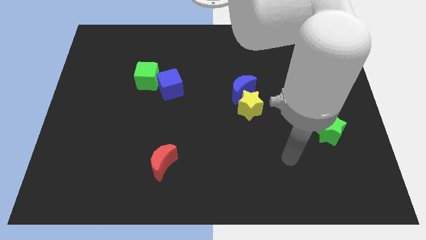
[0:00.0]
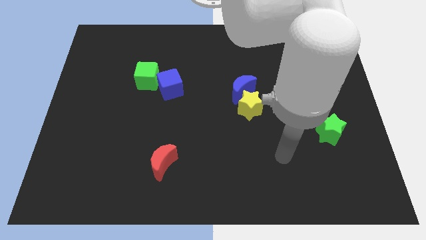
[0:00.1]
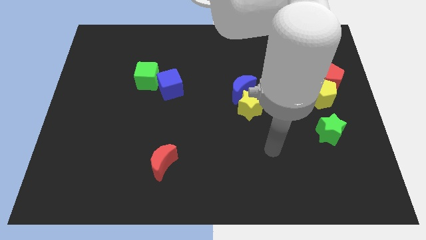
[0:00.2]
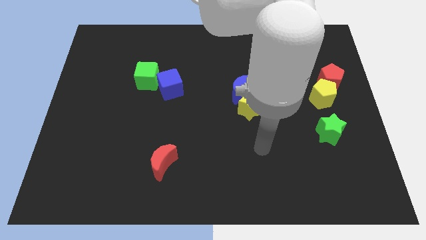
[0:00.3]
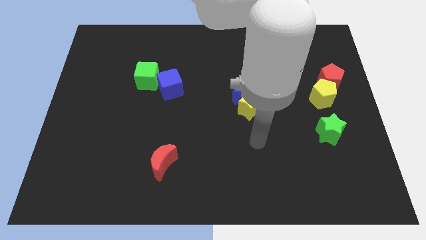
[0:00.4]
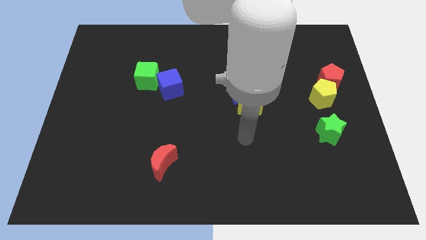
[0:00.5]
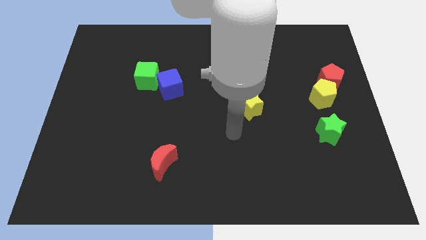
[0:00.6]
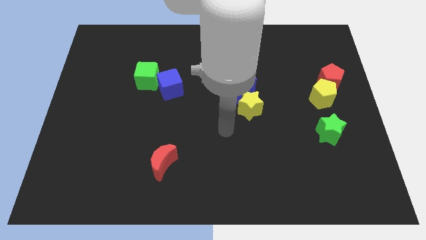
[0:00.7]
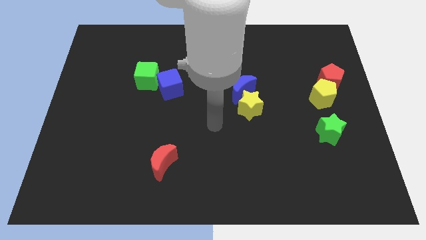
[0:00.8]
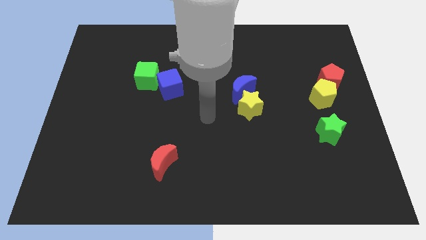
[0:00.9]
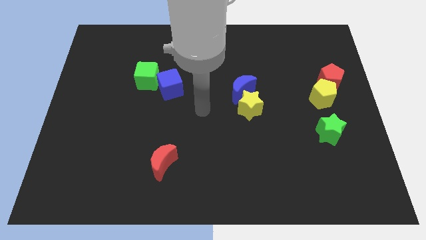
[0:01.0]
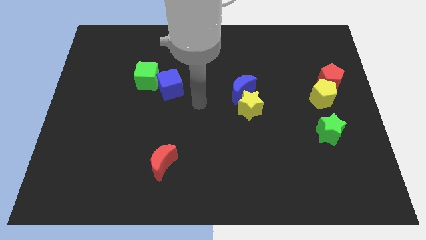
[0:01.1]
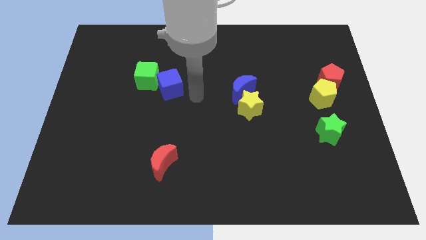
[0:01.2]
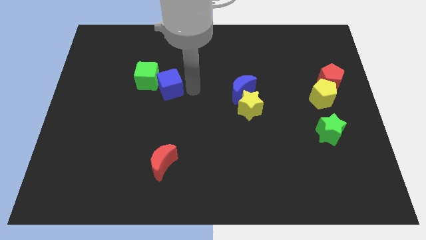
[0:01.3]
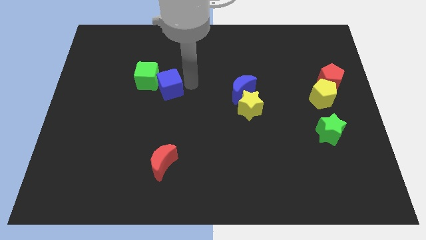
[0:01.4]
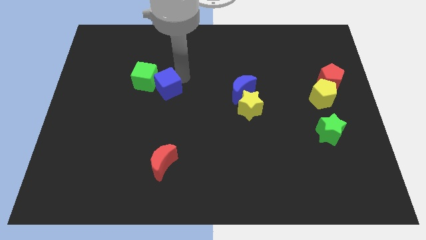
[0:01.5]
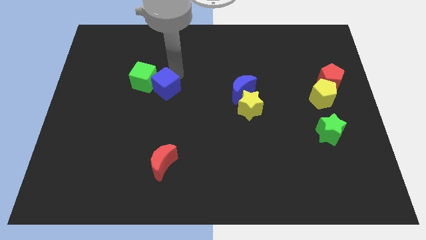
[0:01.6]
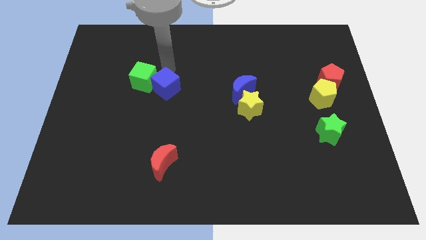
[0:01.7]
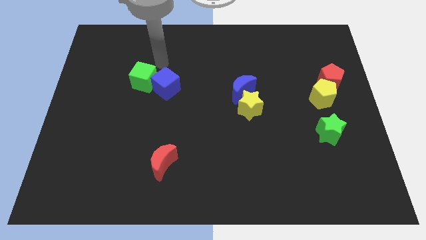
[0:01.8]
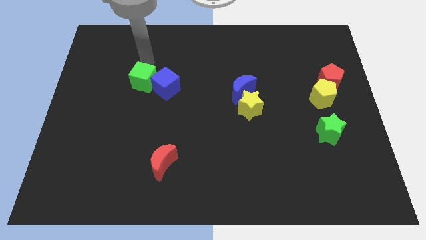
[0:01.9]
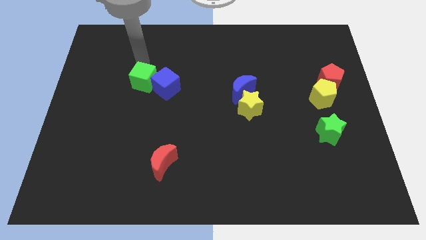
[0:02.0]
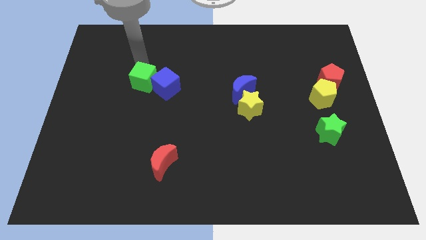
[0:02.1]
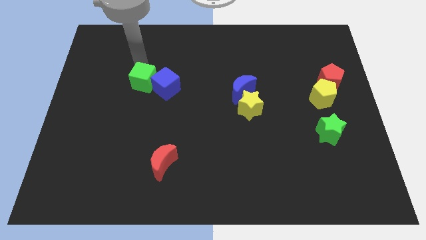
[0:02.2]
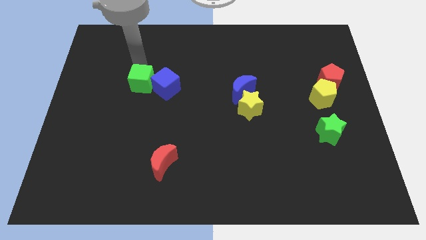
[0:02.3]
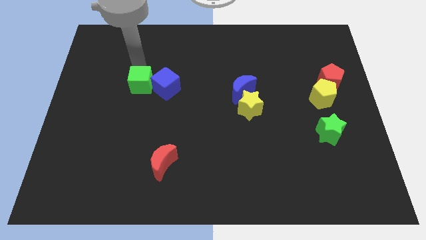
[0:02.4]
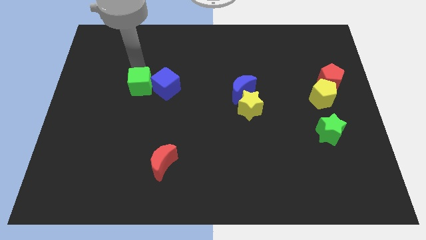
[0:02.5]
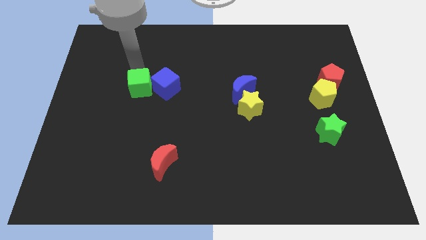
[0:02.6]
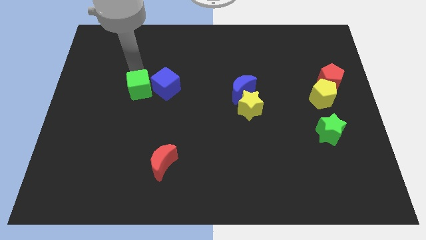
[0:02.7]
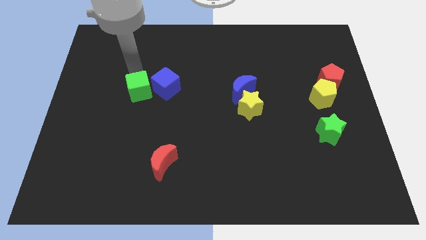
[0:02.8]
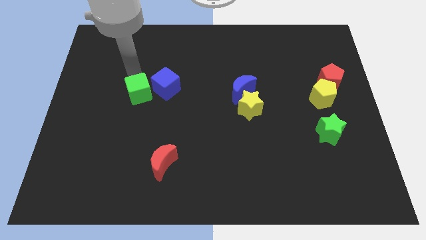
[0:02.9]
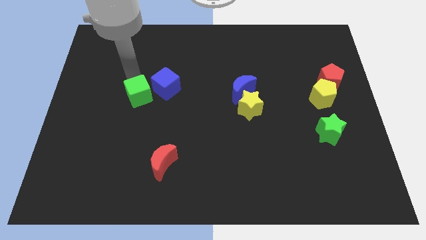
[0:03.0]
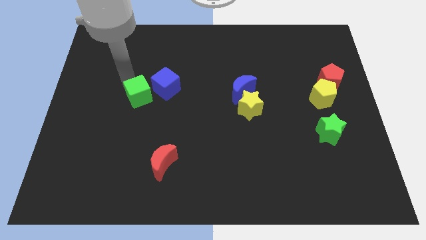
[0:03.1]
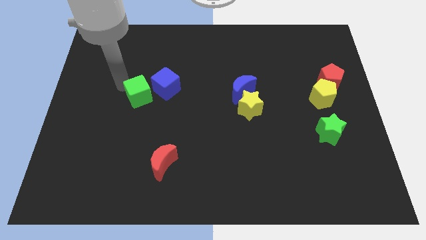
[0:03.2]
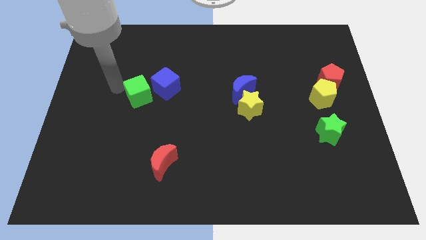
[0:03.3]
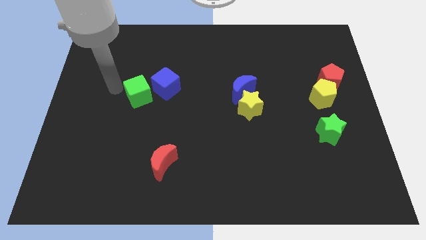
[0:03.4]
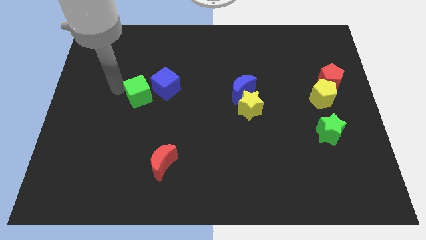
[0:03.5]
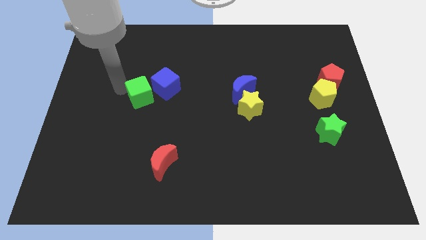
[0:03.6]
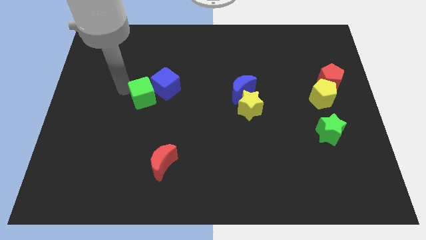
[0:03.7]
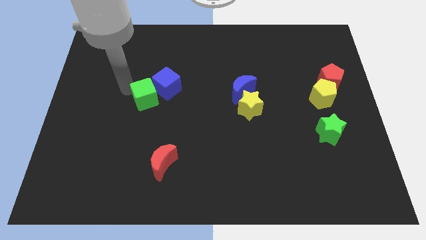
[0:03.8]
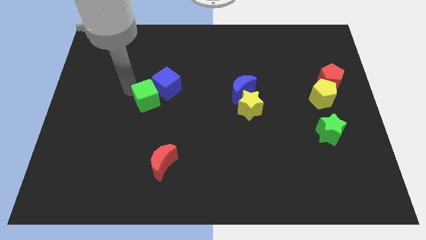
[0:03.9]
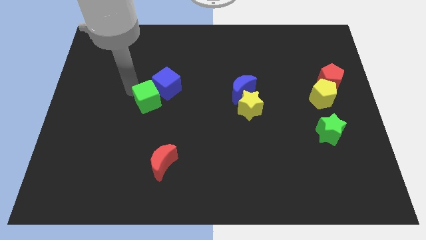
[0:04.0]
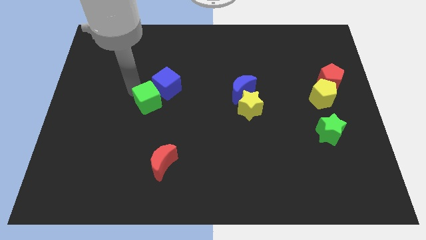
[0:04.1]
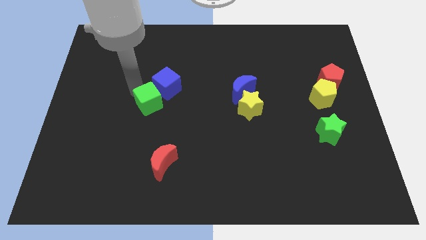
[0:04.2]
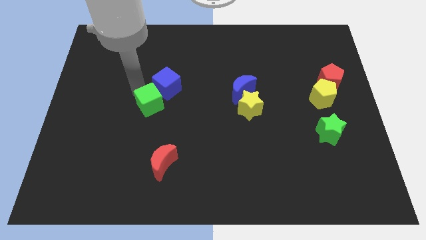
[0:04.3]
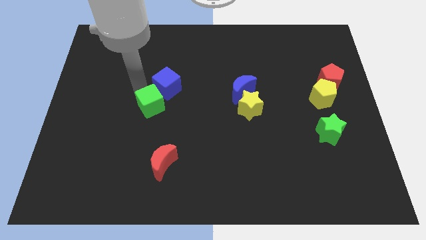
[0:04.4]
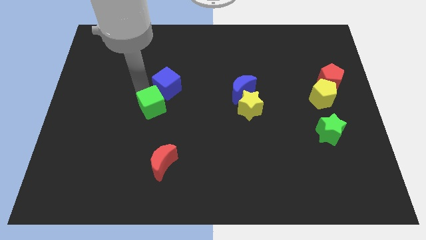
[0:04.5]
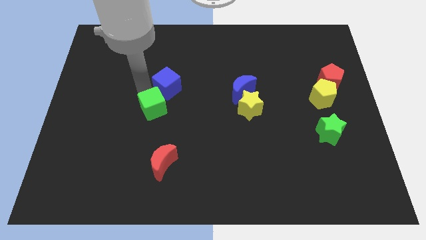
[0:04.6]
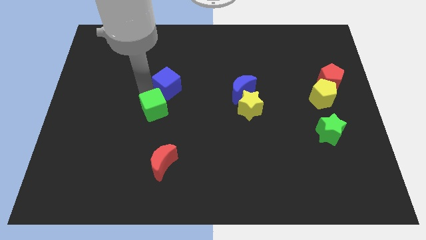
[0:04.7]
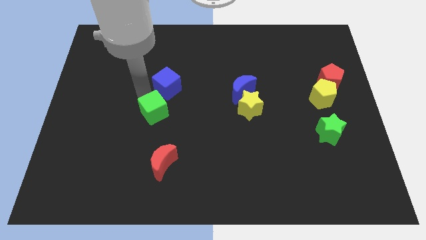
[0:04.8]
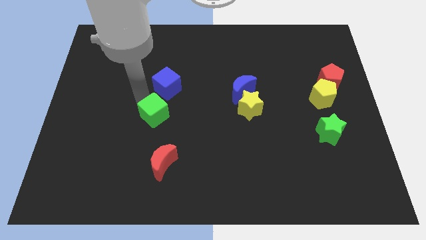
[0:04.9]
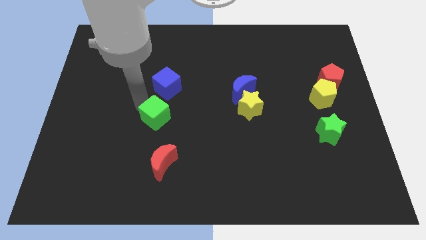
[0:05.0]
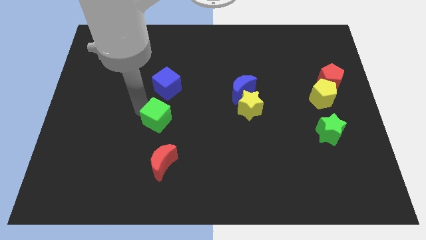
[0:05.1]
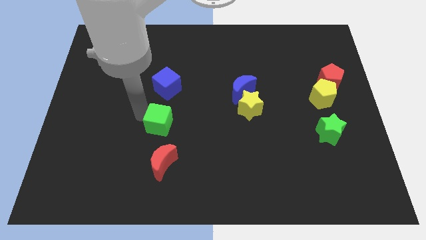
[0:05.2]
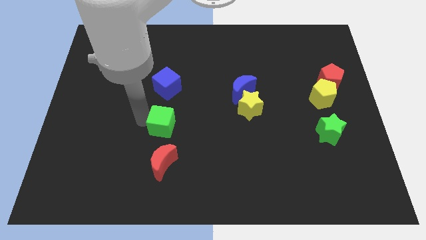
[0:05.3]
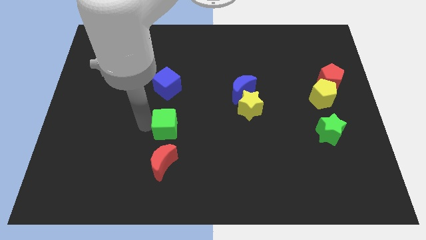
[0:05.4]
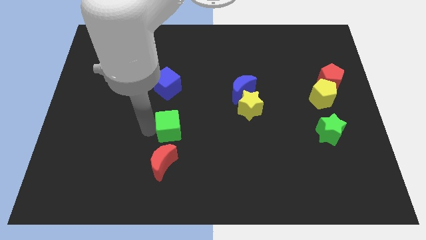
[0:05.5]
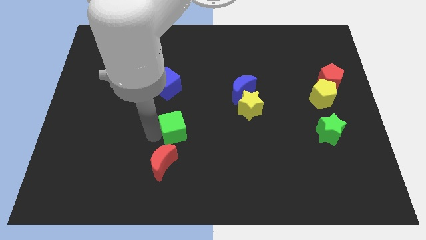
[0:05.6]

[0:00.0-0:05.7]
slide the green cube to the center of the board

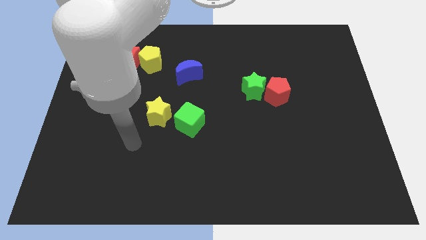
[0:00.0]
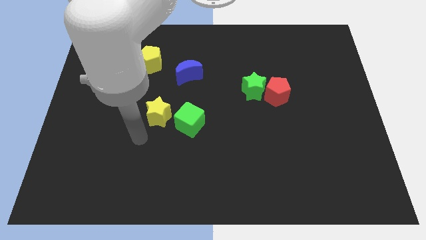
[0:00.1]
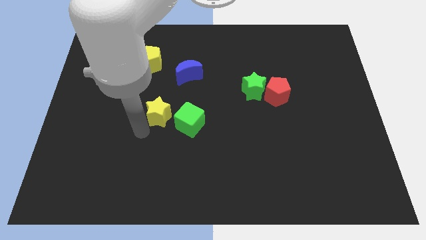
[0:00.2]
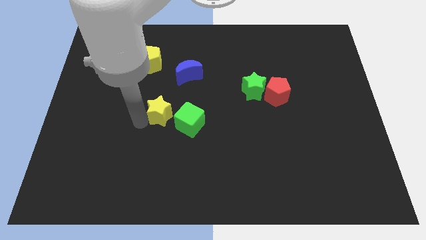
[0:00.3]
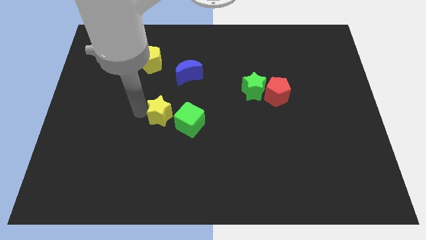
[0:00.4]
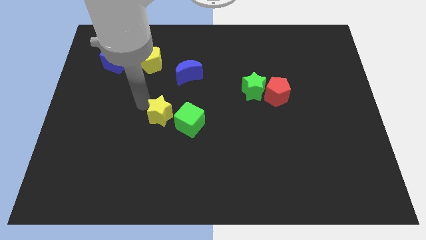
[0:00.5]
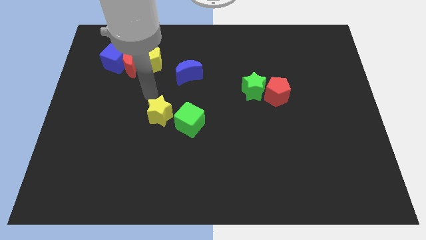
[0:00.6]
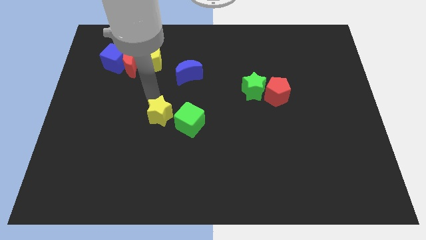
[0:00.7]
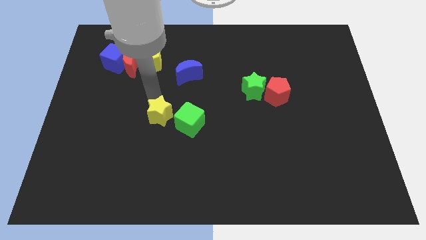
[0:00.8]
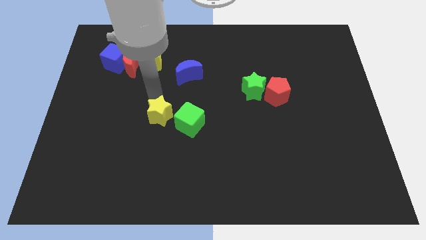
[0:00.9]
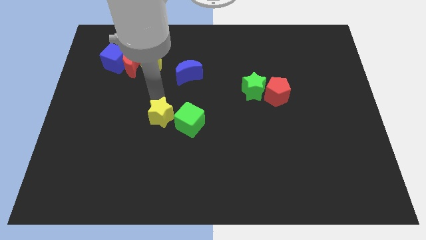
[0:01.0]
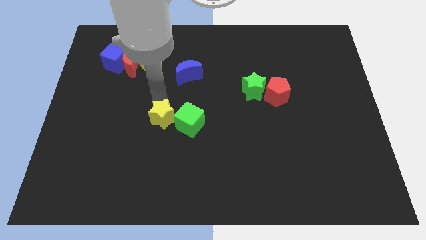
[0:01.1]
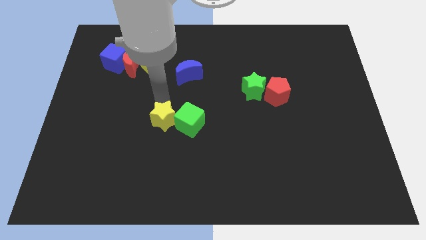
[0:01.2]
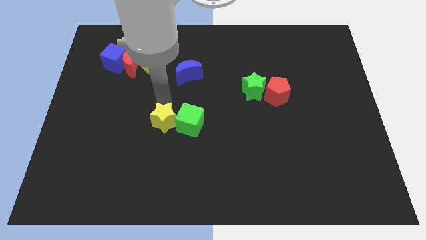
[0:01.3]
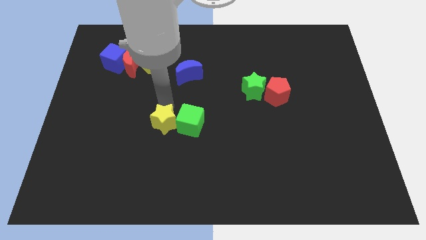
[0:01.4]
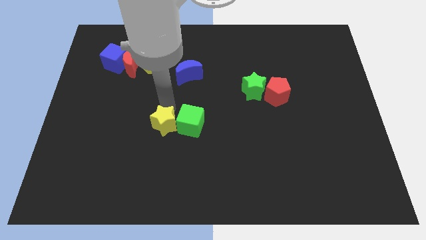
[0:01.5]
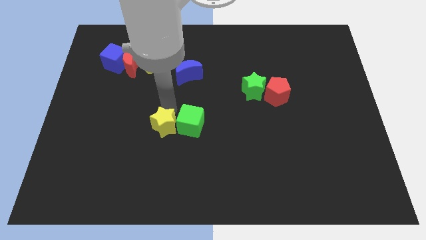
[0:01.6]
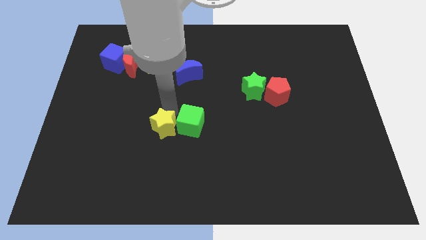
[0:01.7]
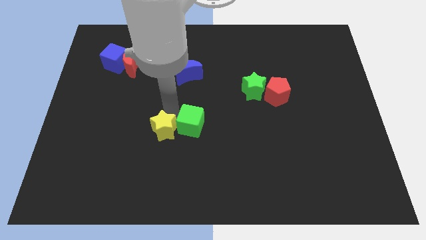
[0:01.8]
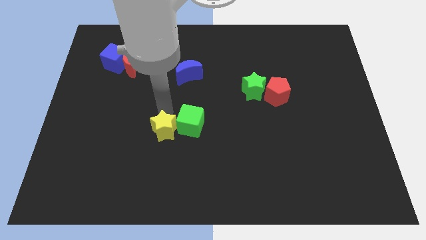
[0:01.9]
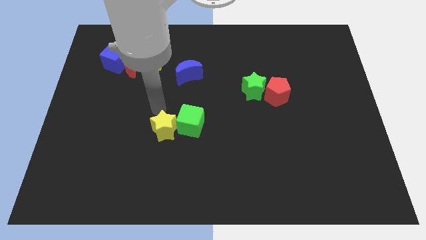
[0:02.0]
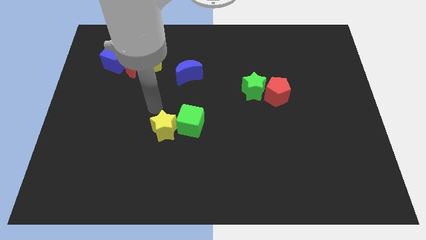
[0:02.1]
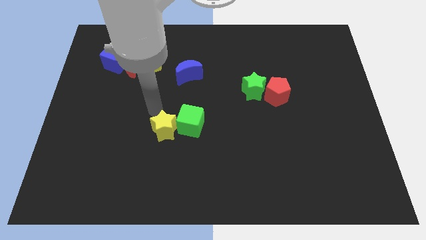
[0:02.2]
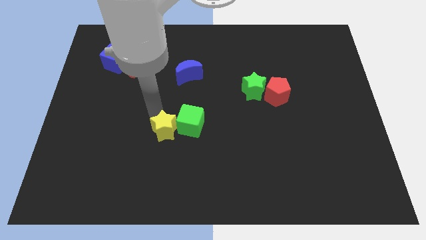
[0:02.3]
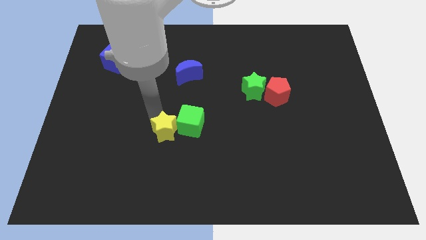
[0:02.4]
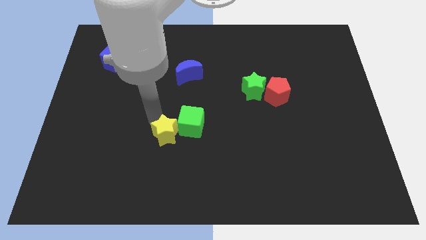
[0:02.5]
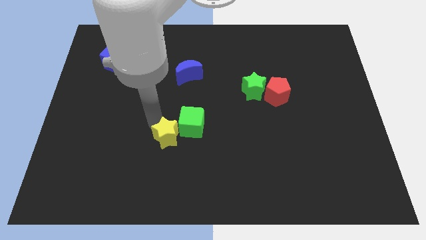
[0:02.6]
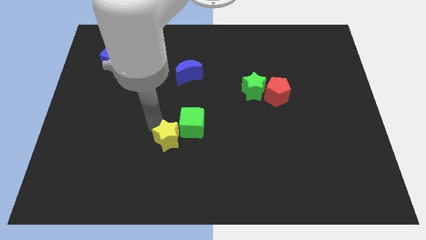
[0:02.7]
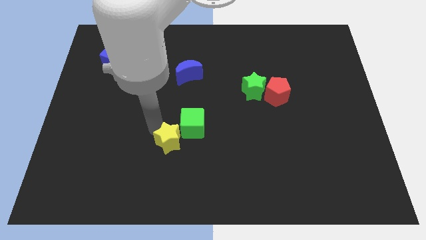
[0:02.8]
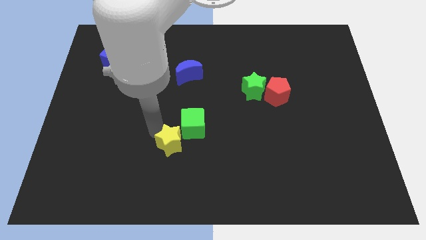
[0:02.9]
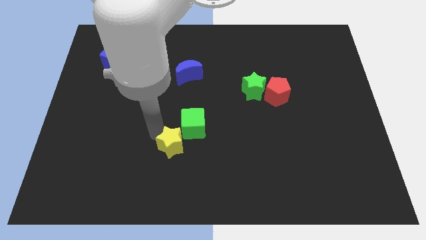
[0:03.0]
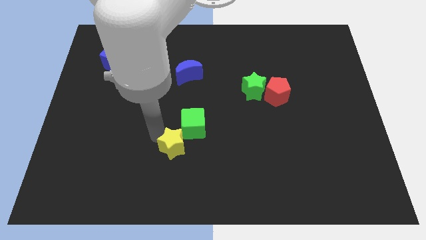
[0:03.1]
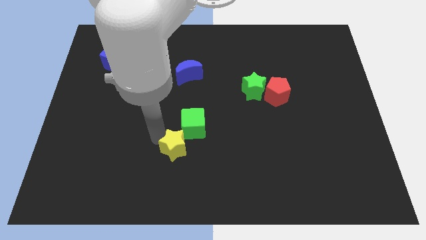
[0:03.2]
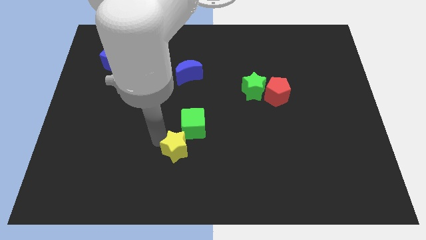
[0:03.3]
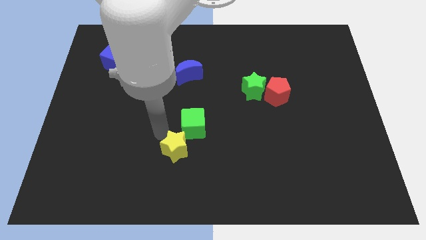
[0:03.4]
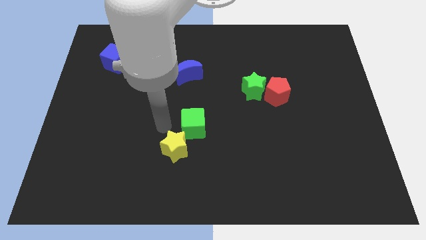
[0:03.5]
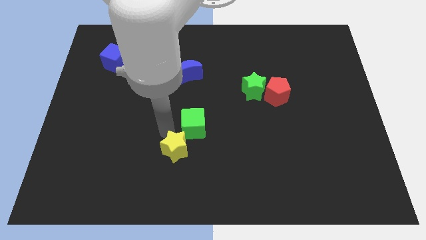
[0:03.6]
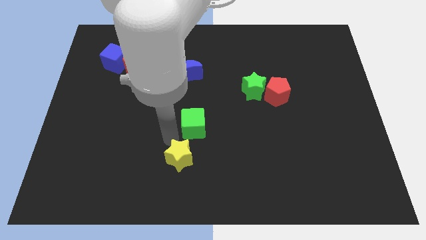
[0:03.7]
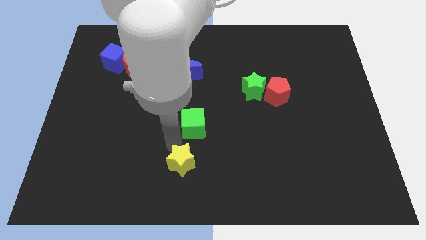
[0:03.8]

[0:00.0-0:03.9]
push the yellow star to the bottom side
